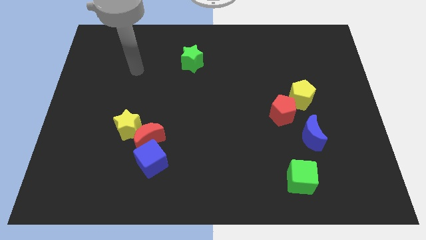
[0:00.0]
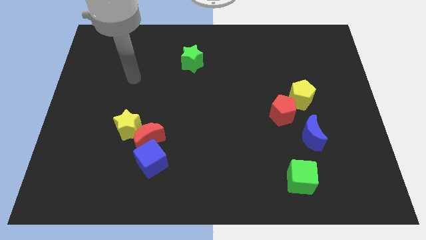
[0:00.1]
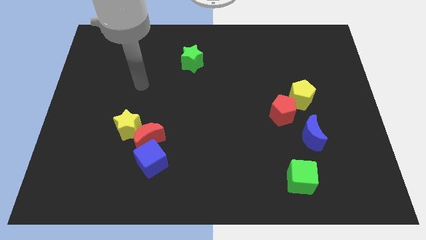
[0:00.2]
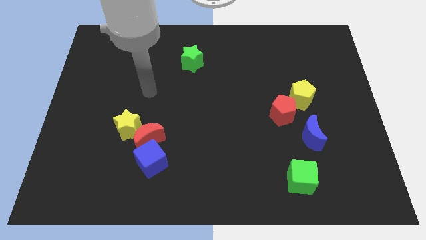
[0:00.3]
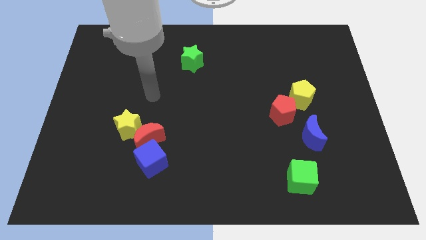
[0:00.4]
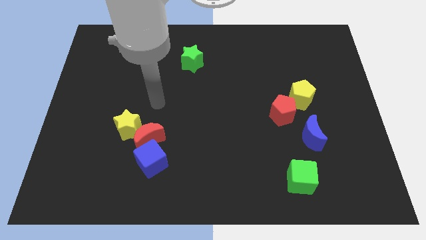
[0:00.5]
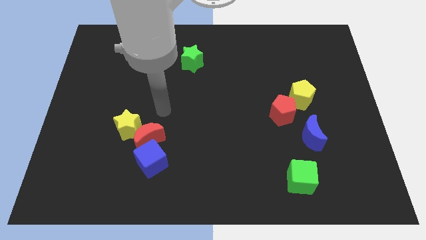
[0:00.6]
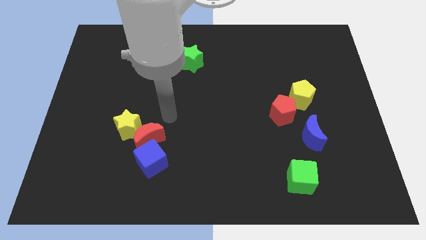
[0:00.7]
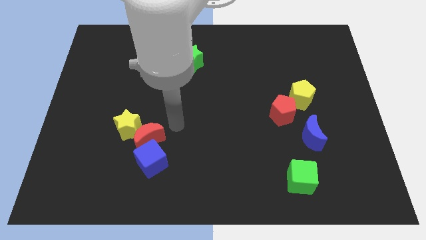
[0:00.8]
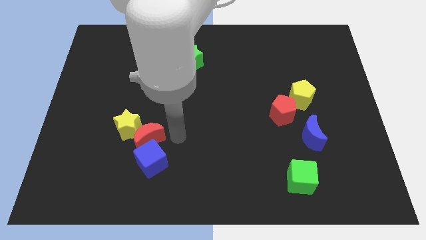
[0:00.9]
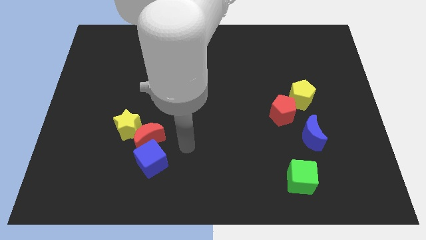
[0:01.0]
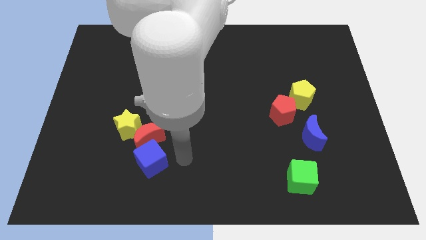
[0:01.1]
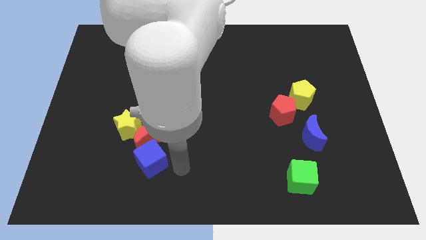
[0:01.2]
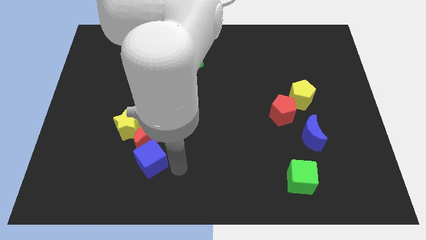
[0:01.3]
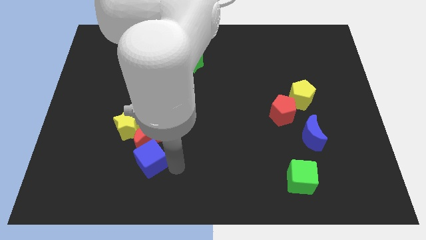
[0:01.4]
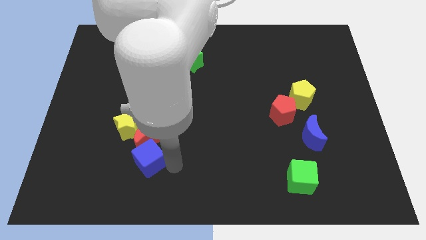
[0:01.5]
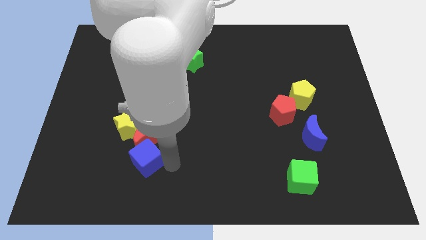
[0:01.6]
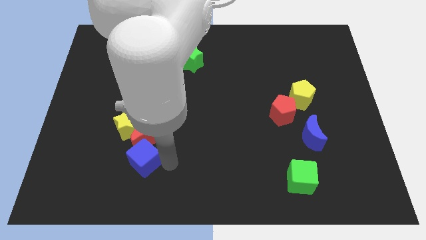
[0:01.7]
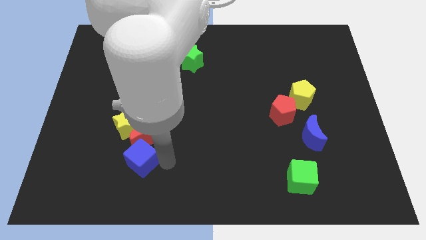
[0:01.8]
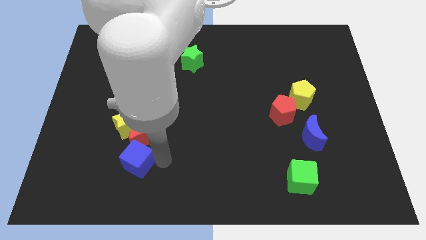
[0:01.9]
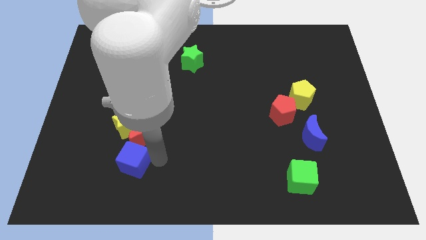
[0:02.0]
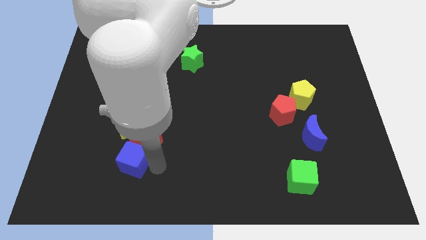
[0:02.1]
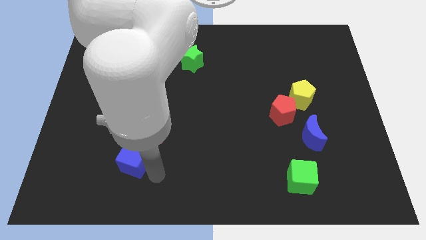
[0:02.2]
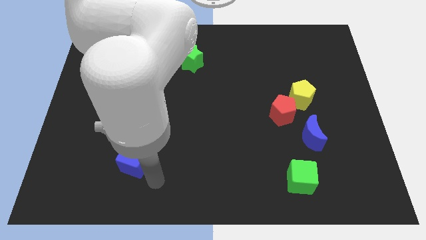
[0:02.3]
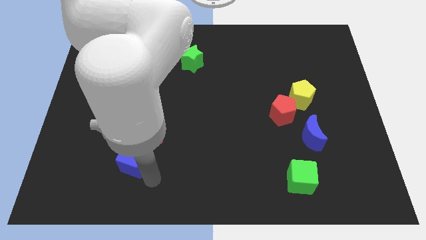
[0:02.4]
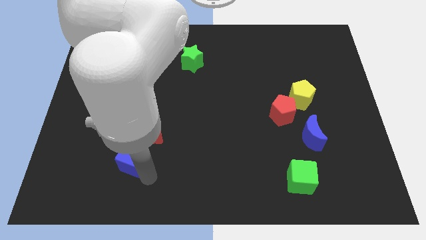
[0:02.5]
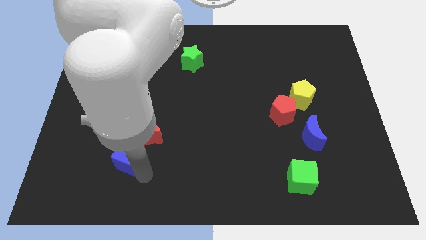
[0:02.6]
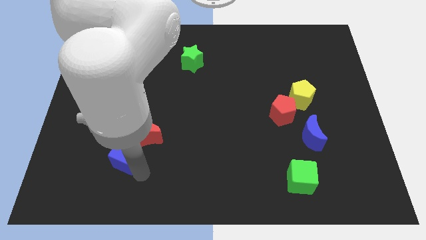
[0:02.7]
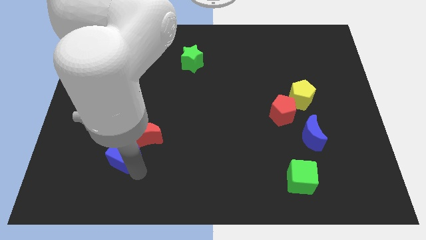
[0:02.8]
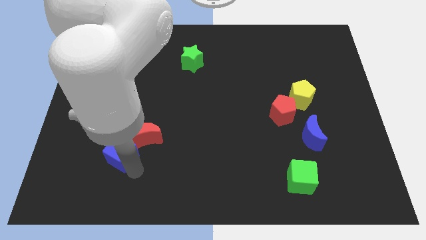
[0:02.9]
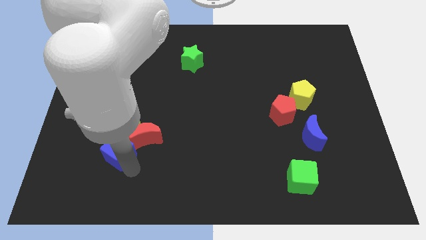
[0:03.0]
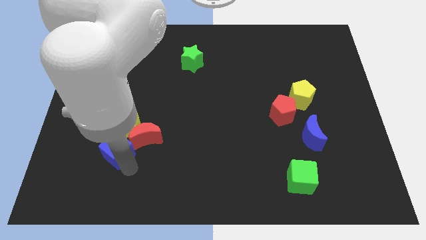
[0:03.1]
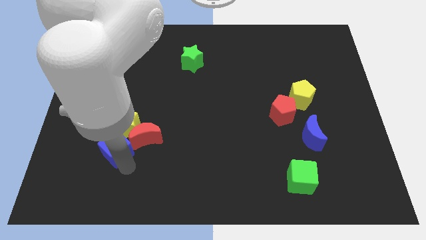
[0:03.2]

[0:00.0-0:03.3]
slide the blue cube up and then to the left slightly

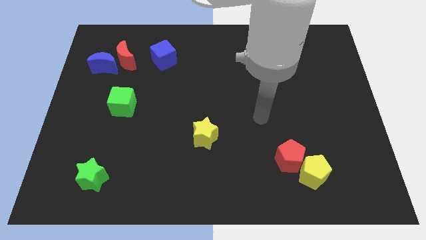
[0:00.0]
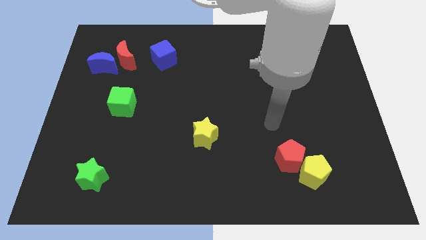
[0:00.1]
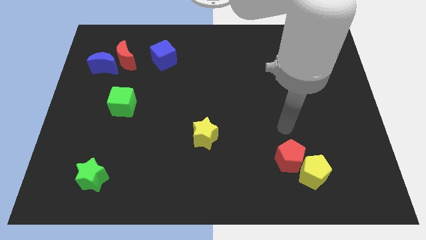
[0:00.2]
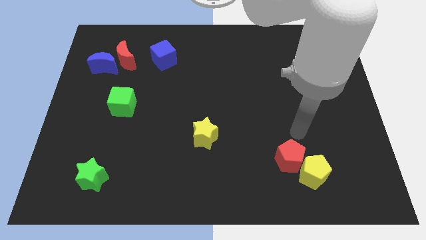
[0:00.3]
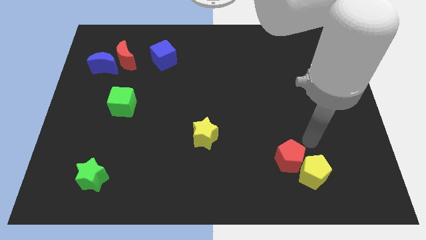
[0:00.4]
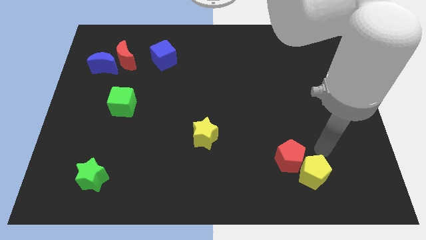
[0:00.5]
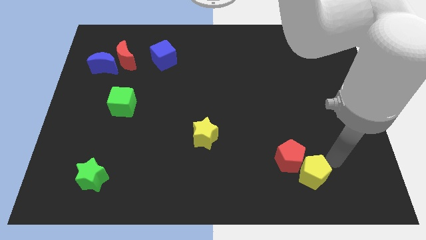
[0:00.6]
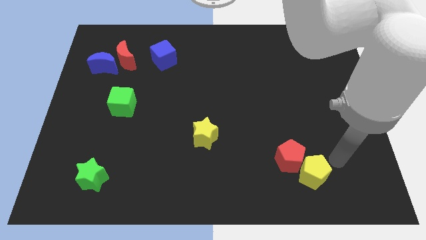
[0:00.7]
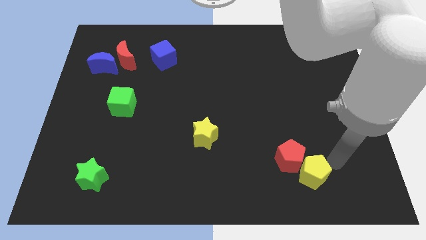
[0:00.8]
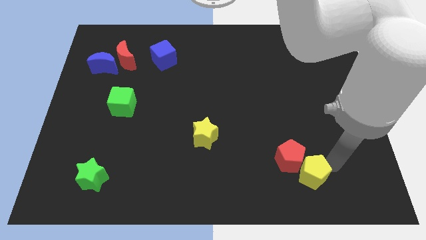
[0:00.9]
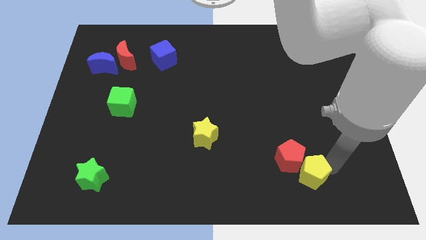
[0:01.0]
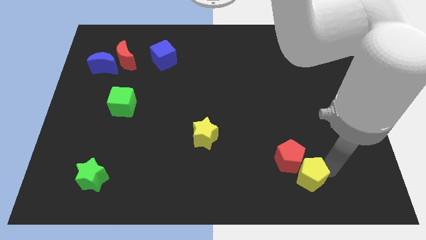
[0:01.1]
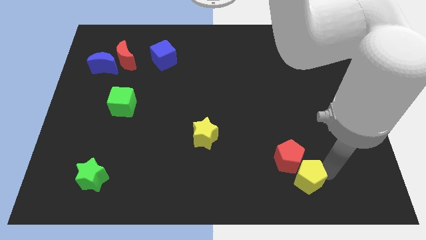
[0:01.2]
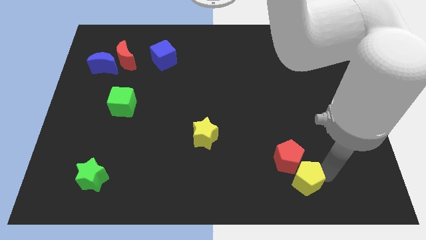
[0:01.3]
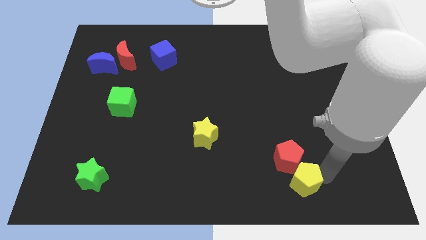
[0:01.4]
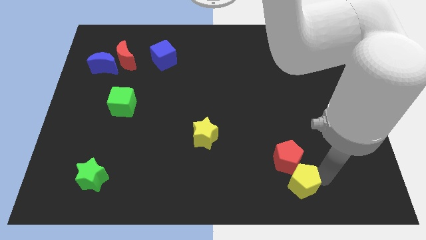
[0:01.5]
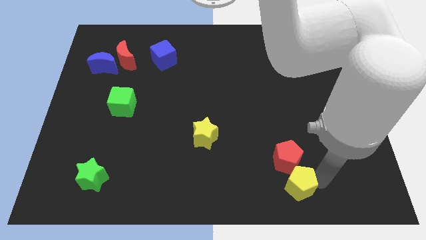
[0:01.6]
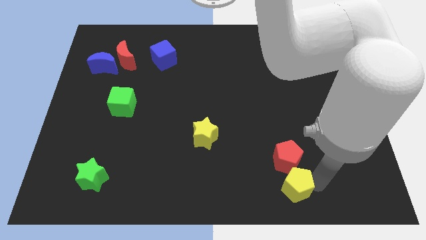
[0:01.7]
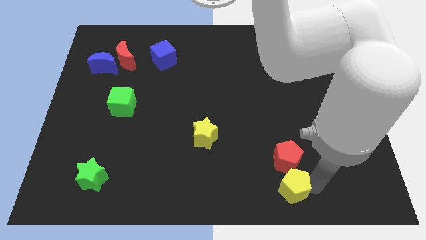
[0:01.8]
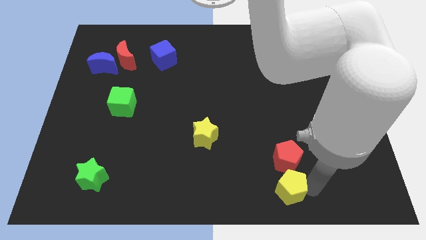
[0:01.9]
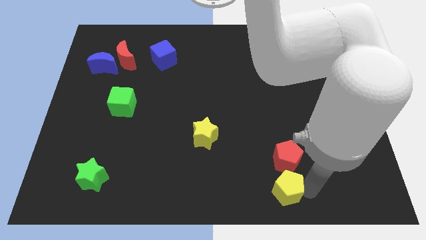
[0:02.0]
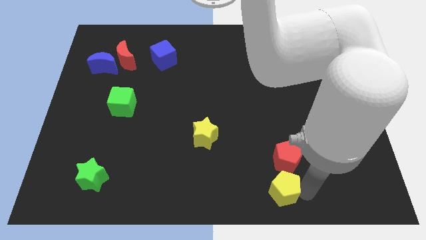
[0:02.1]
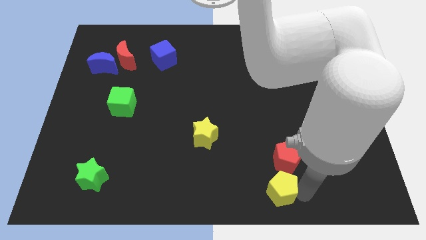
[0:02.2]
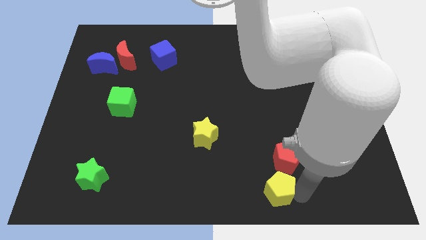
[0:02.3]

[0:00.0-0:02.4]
slightly move the yellow pentagon left

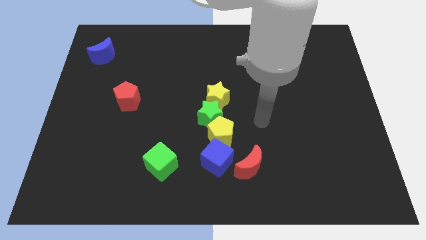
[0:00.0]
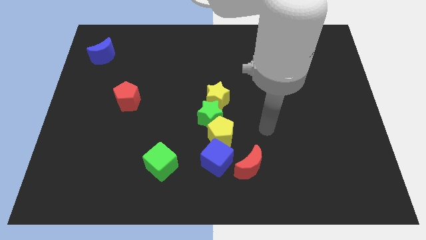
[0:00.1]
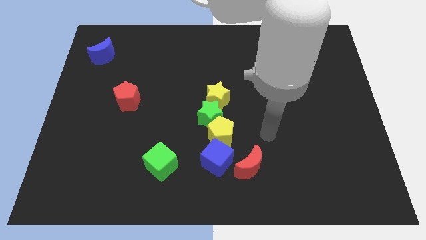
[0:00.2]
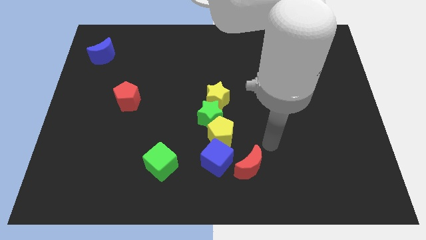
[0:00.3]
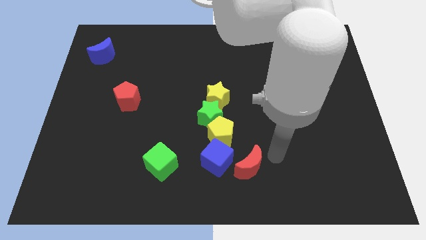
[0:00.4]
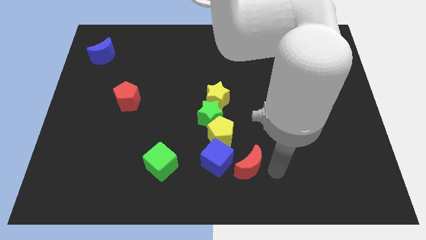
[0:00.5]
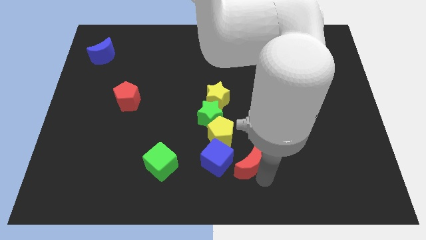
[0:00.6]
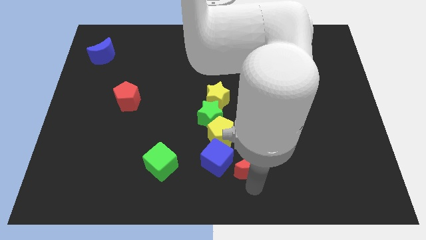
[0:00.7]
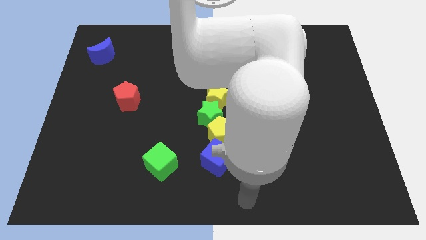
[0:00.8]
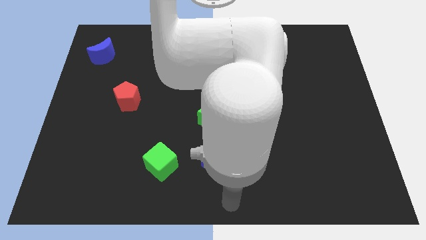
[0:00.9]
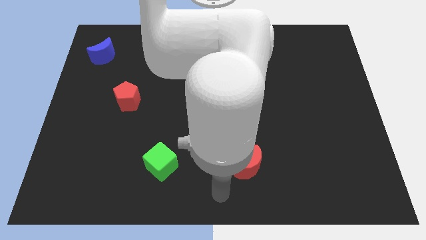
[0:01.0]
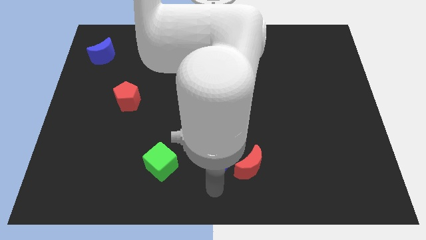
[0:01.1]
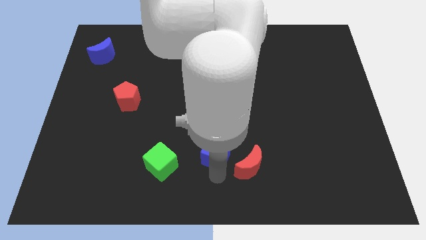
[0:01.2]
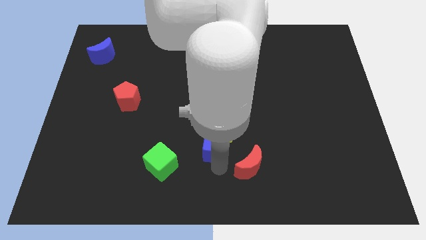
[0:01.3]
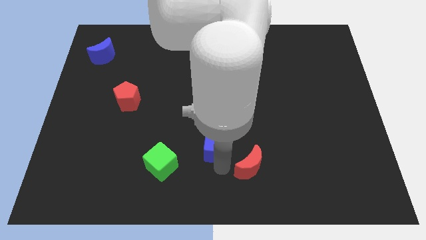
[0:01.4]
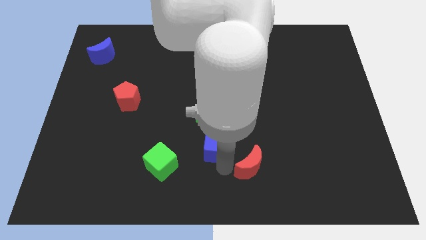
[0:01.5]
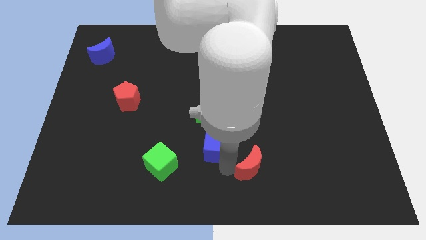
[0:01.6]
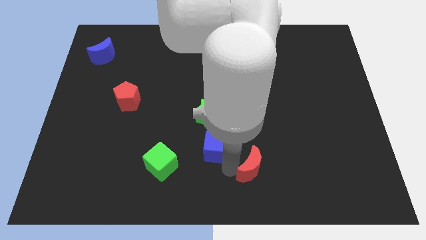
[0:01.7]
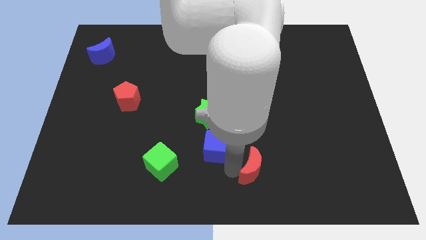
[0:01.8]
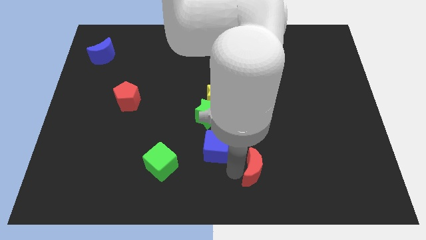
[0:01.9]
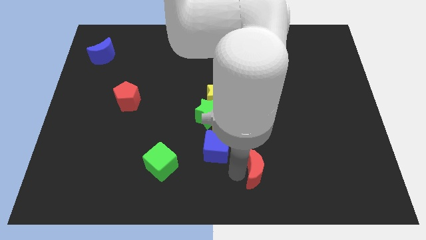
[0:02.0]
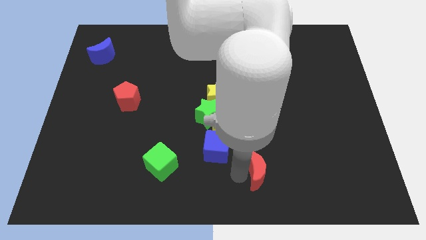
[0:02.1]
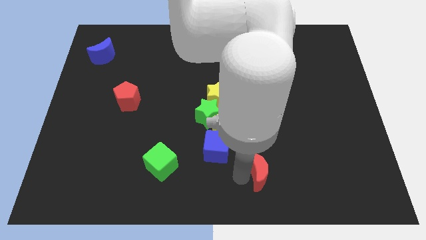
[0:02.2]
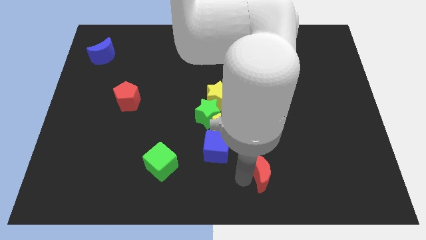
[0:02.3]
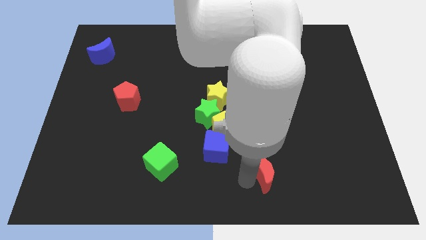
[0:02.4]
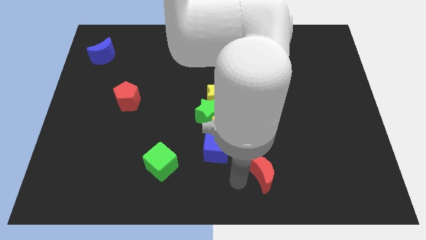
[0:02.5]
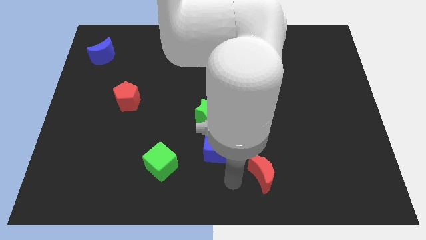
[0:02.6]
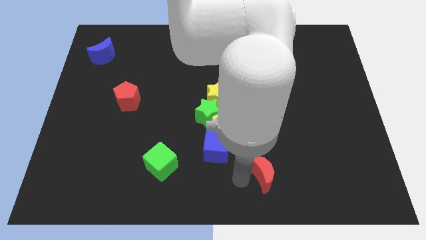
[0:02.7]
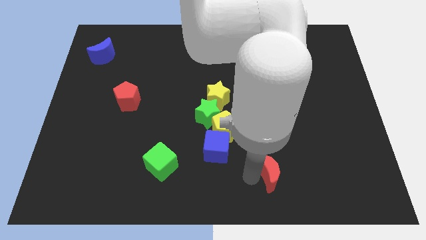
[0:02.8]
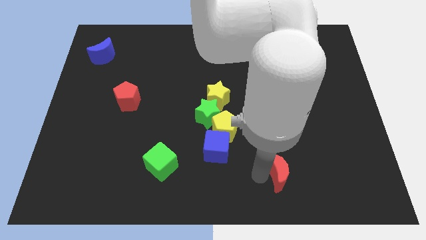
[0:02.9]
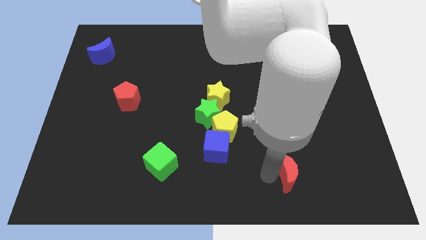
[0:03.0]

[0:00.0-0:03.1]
push the red moon a little right
